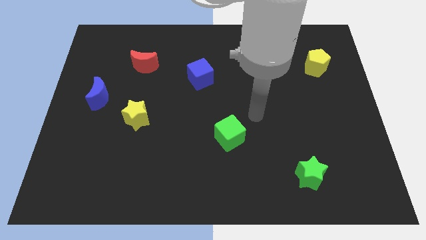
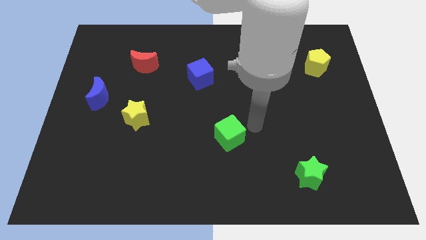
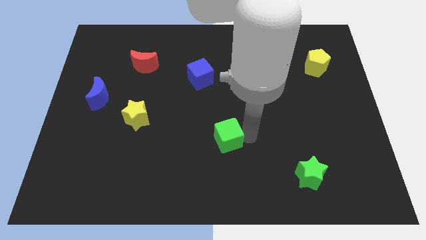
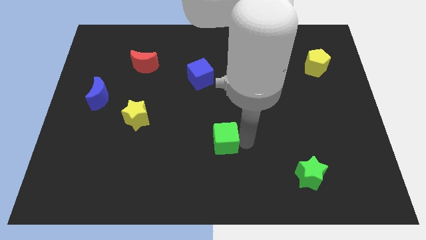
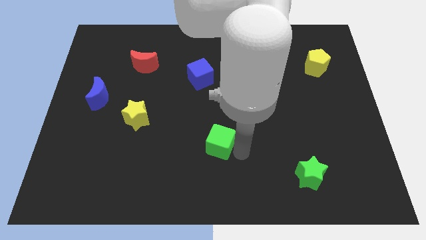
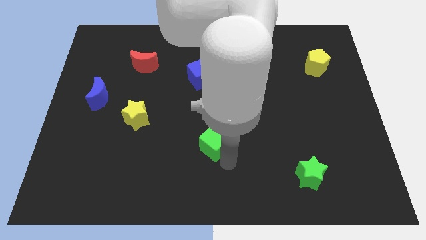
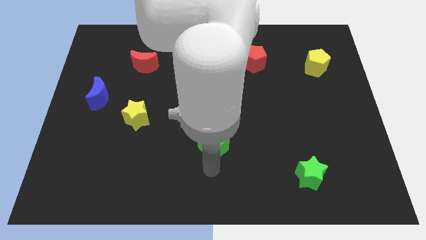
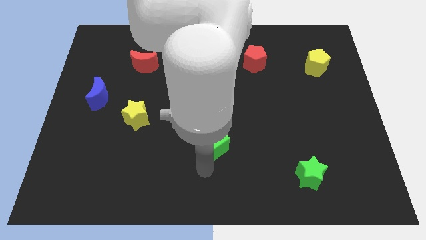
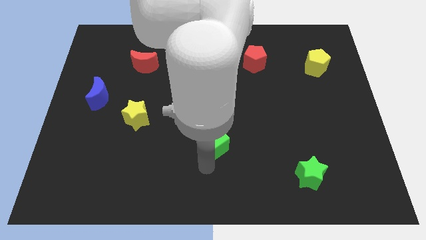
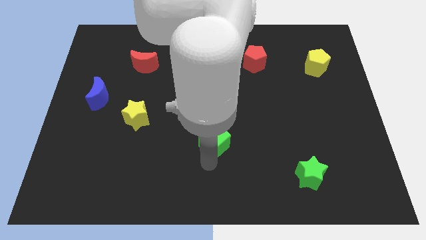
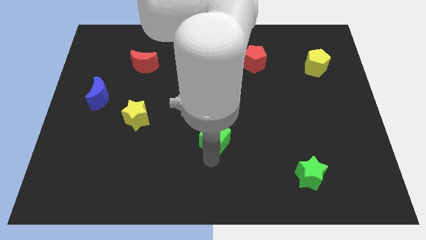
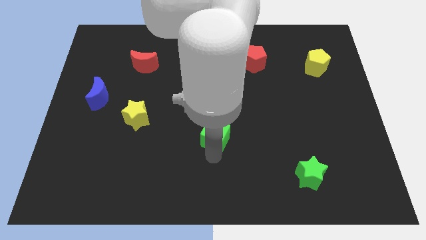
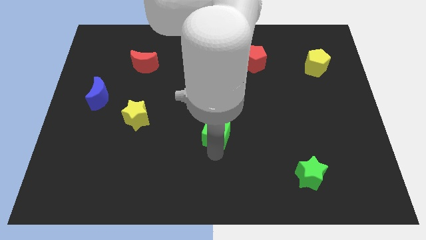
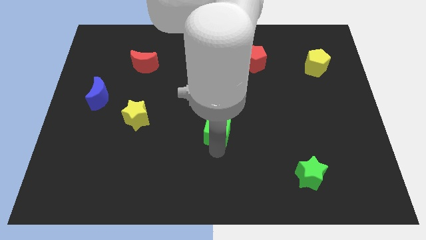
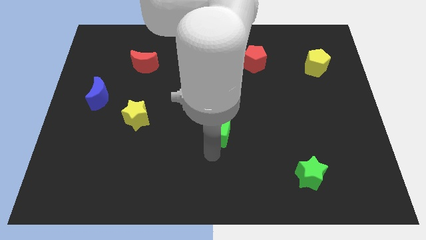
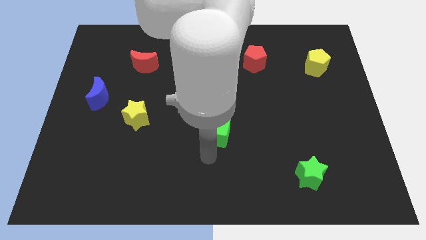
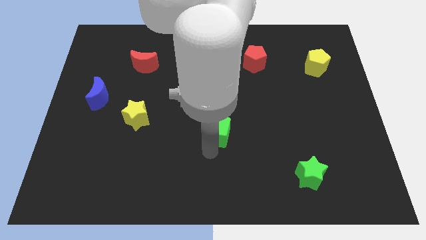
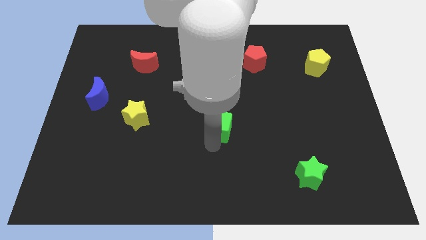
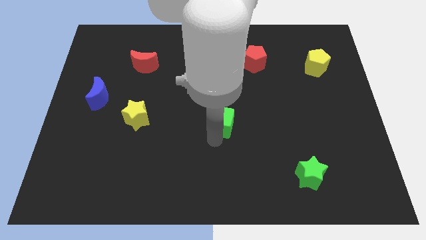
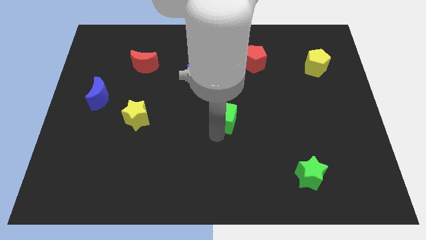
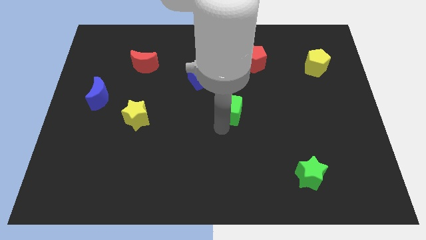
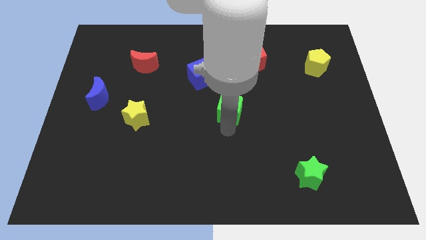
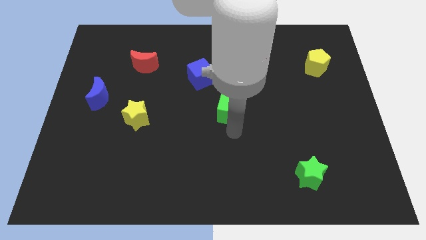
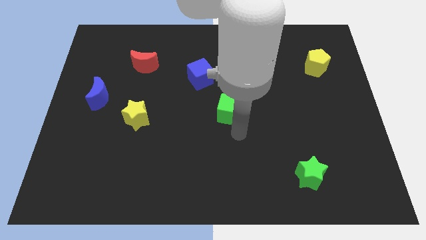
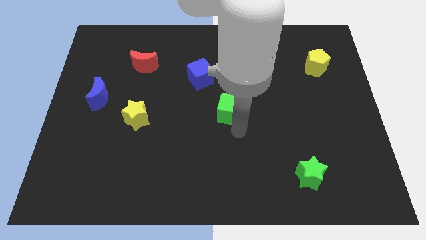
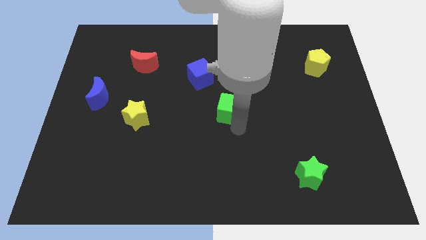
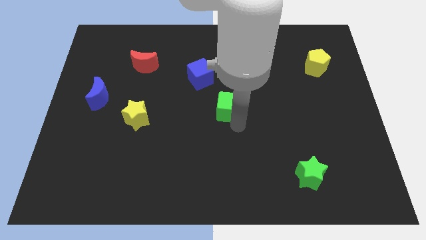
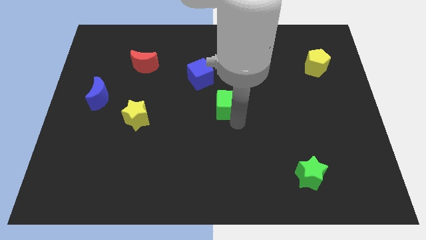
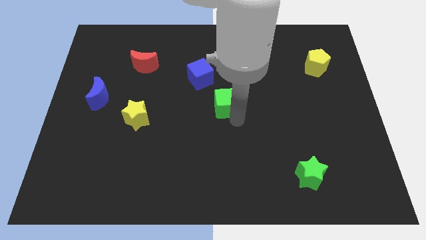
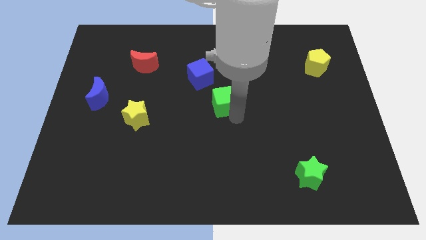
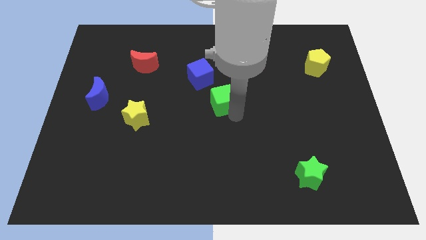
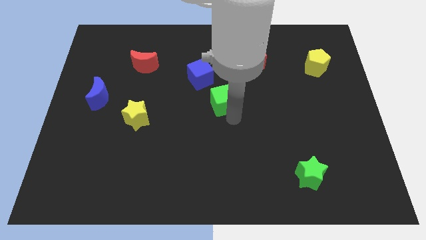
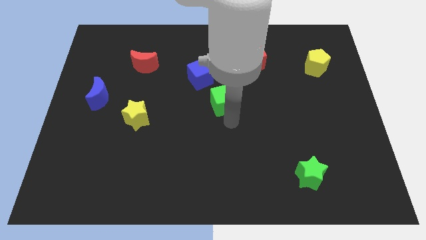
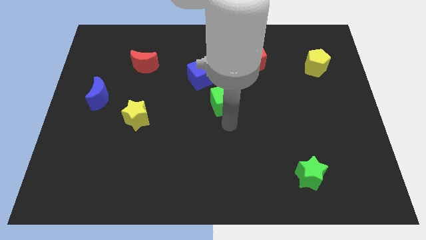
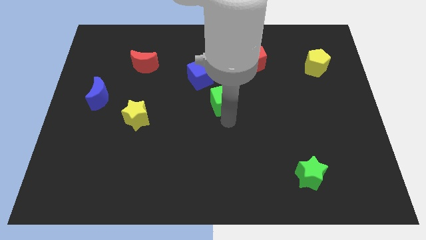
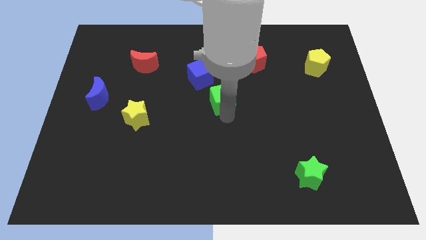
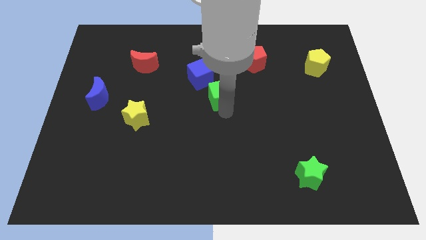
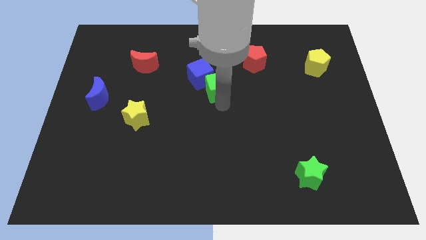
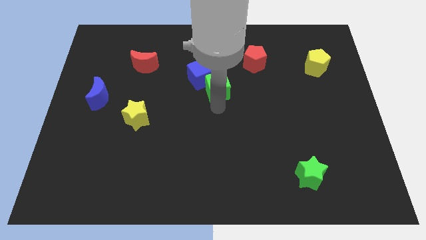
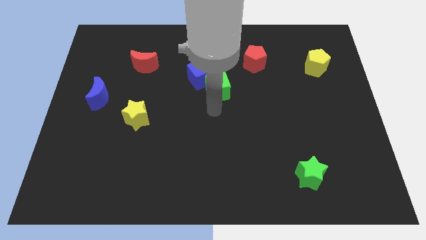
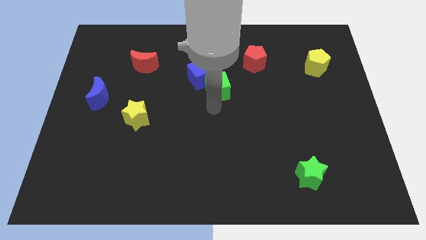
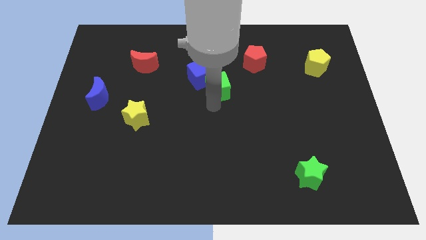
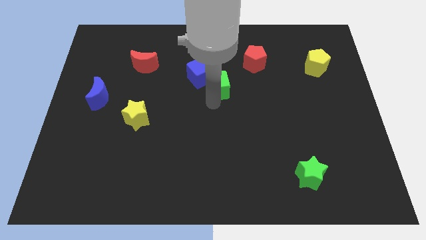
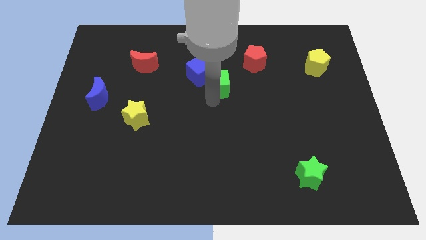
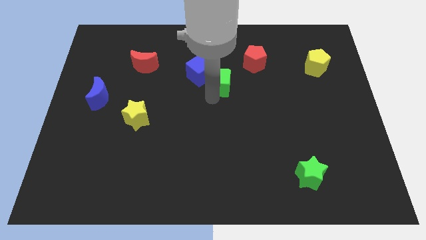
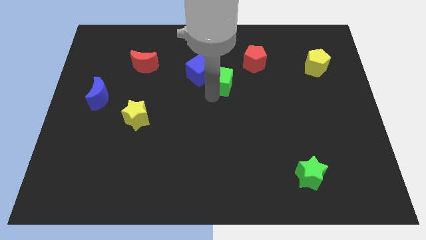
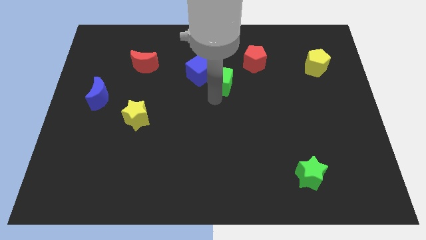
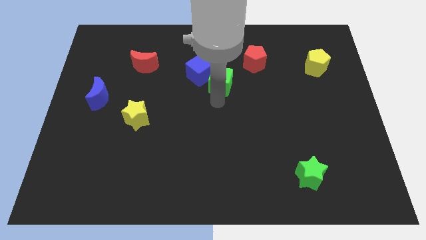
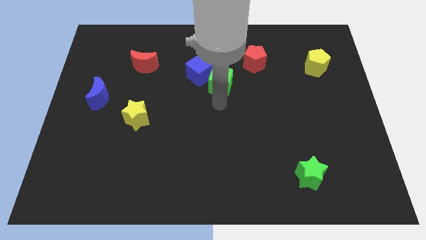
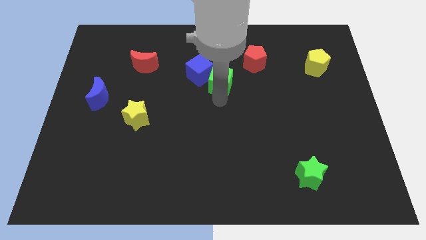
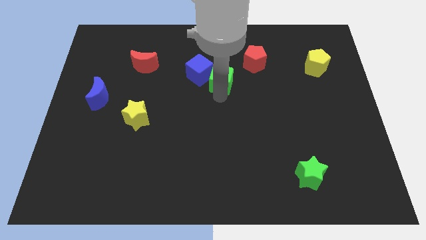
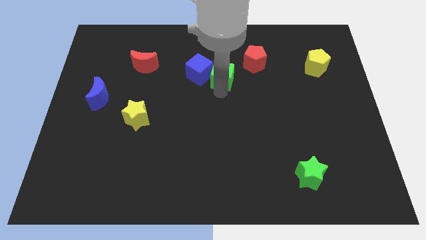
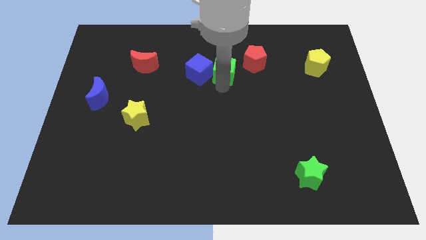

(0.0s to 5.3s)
put the green cube just left of the red pentagon

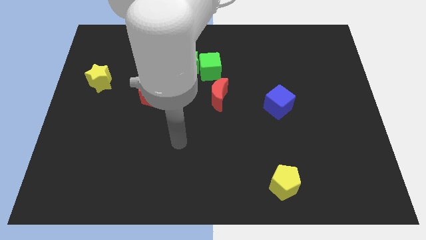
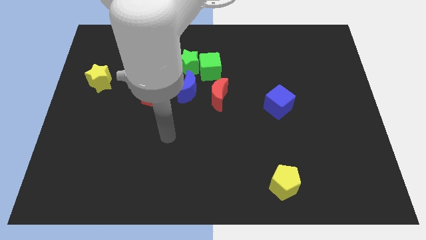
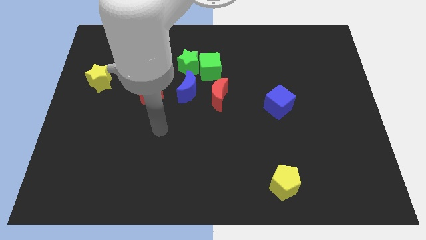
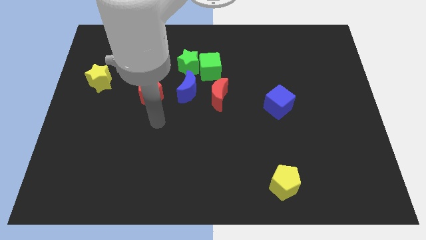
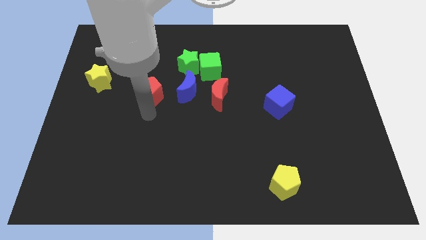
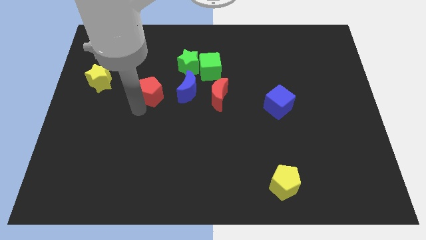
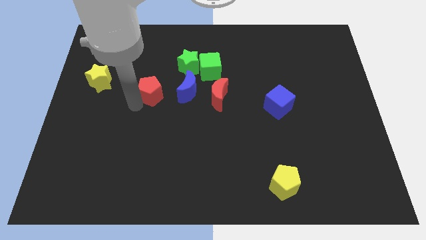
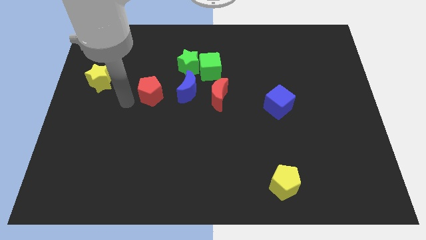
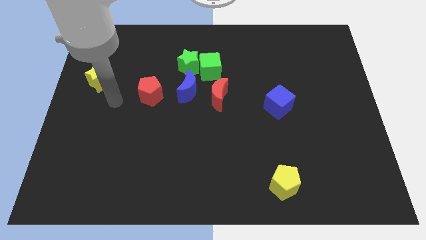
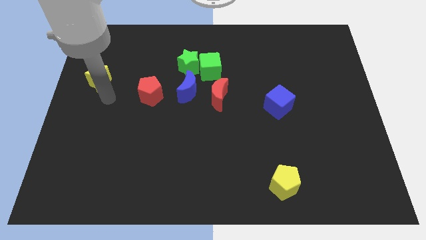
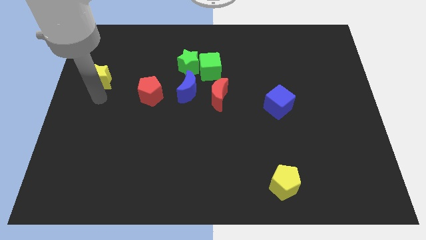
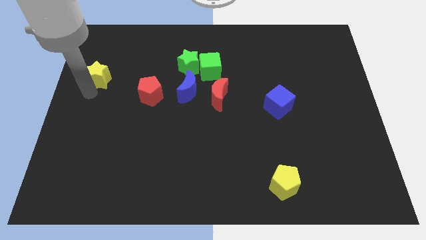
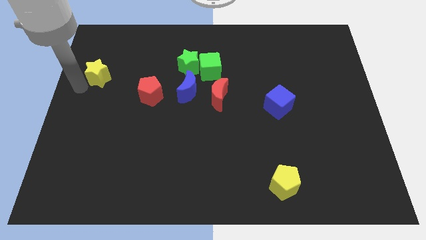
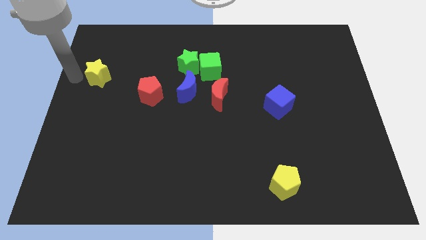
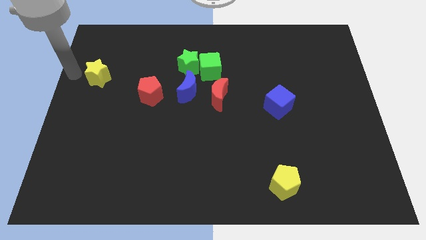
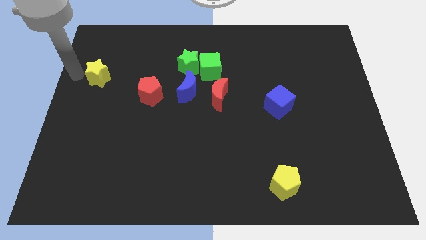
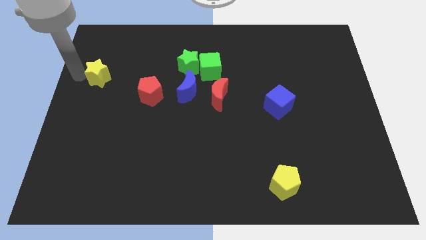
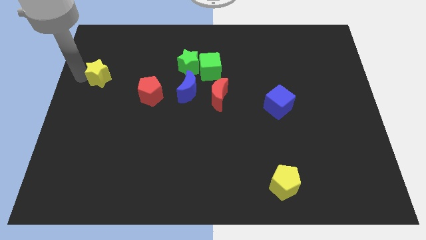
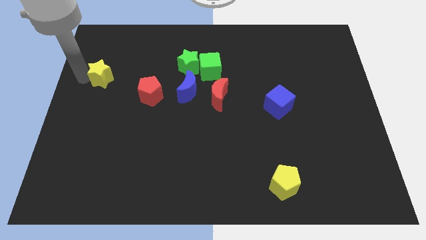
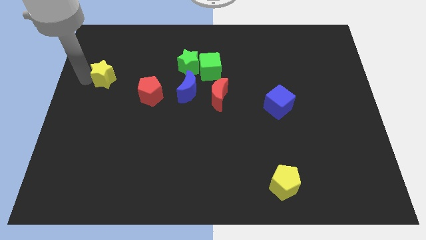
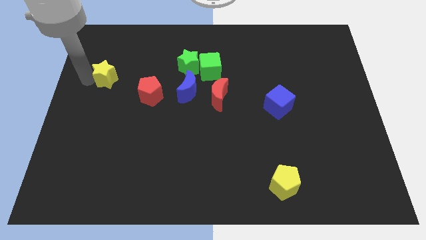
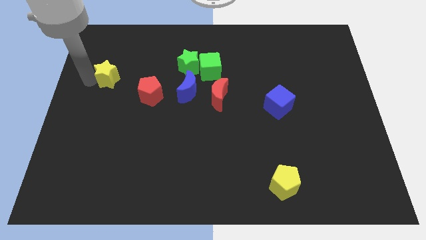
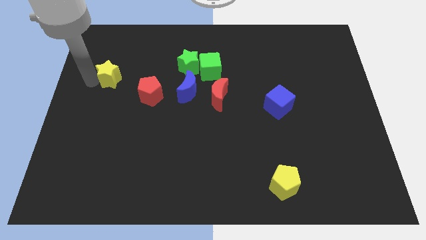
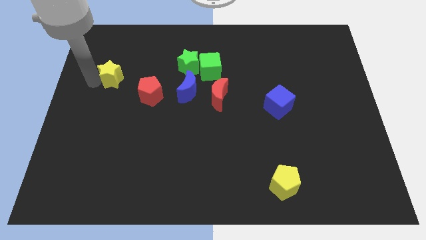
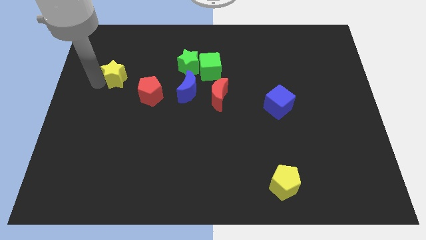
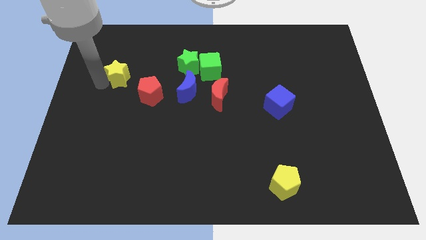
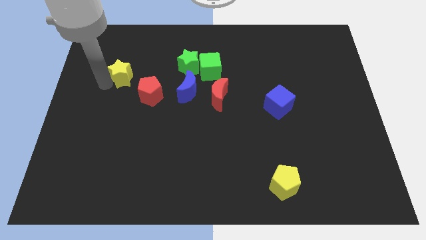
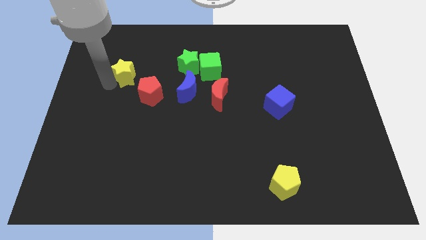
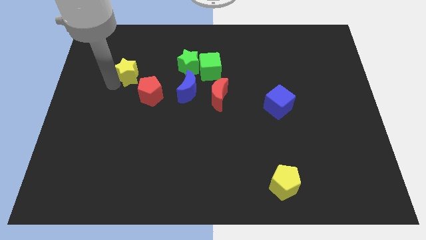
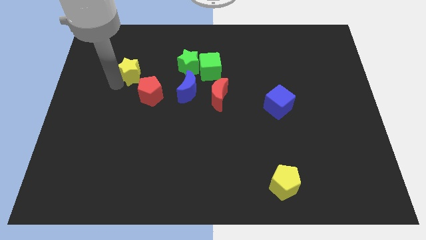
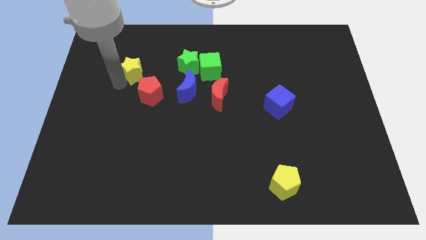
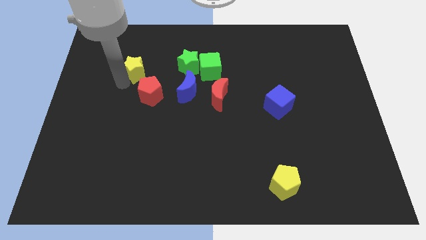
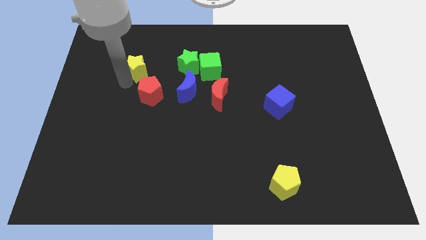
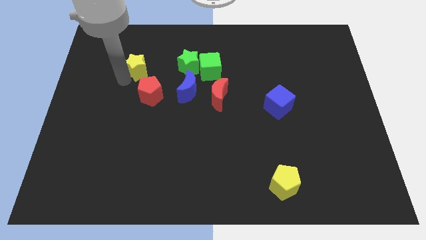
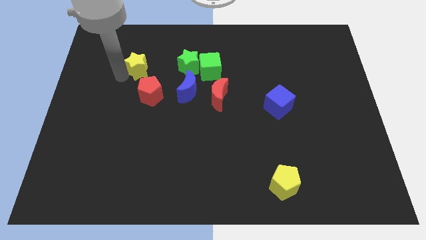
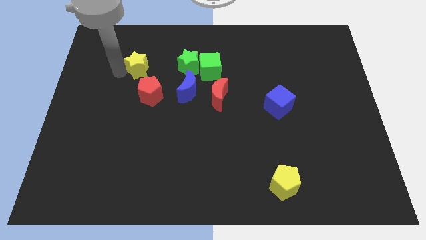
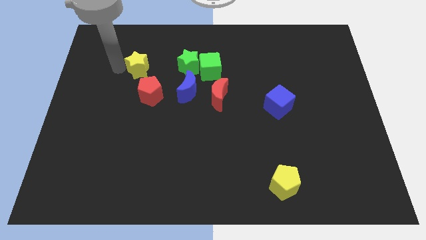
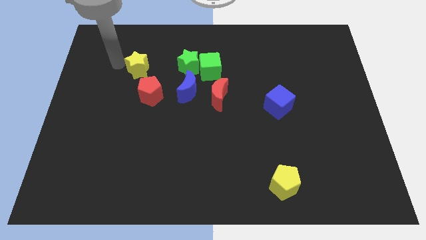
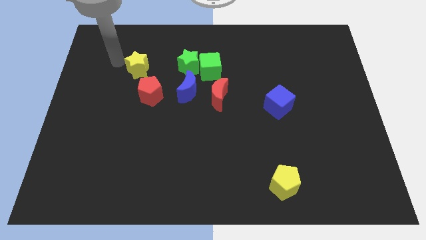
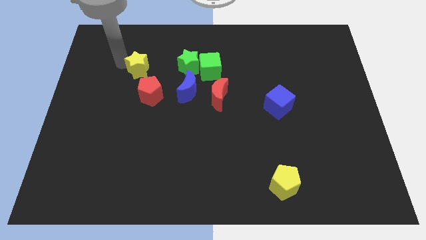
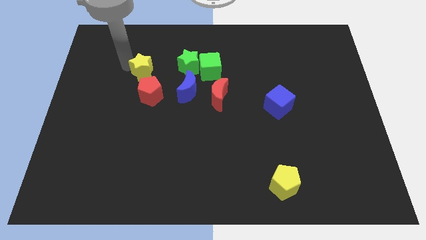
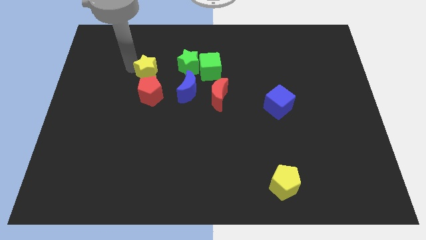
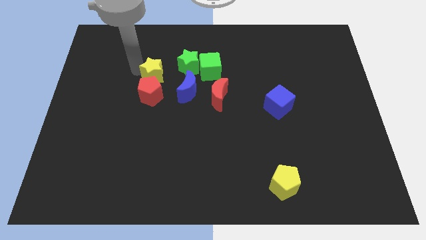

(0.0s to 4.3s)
slide the yellow star to the top right side of the red pentagon
